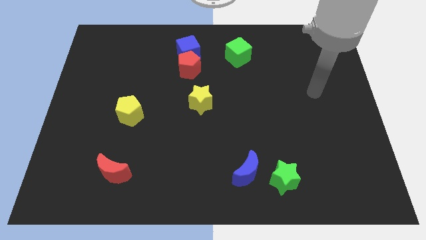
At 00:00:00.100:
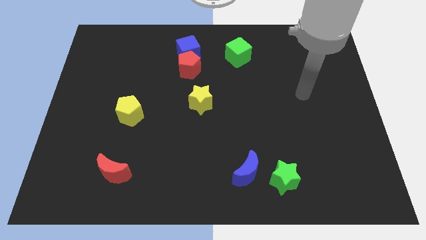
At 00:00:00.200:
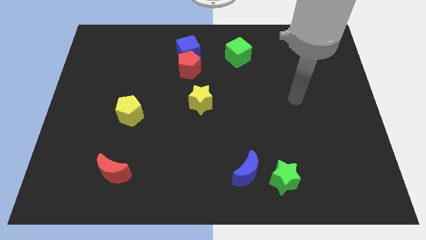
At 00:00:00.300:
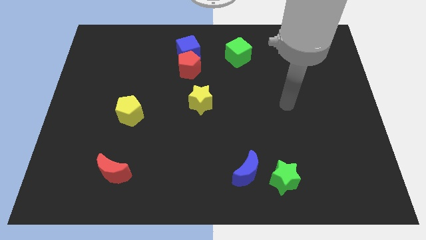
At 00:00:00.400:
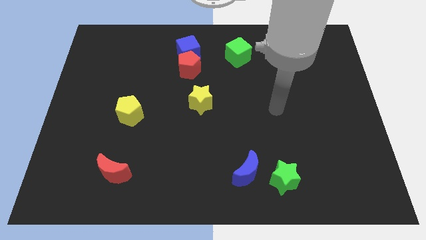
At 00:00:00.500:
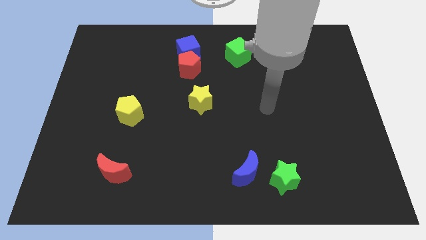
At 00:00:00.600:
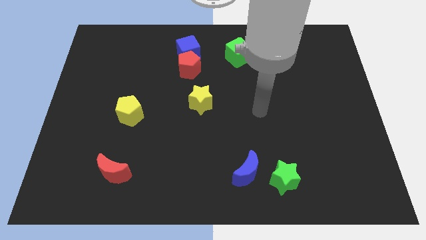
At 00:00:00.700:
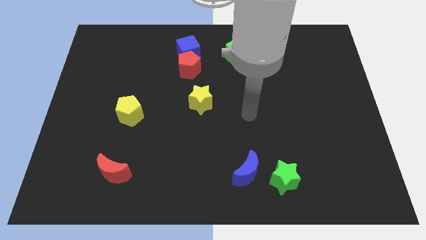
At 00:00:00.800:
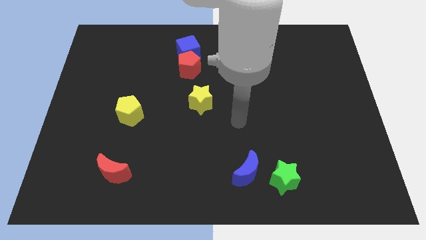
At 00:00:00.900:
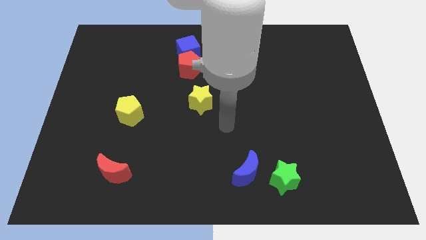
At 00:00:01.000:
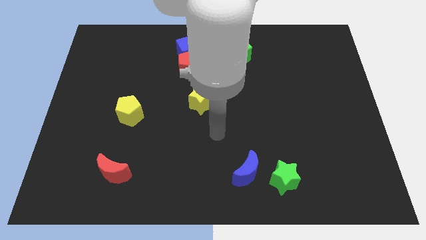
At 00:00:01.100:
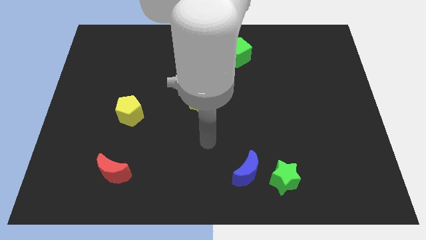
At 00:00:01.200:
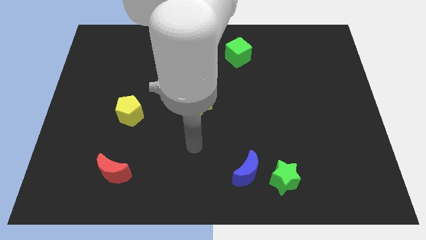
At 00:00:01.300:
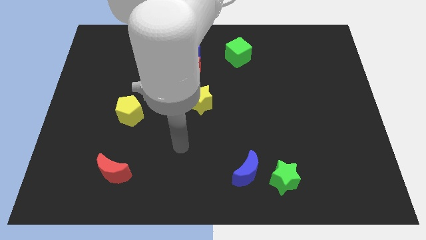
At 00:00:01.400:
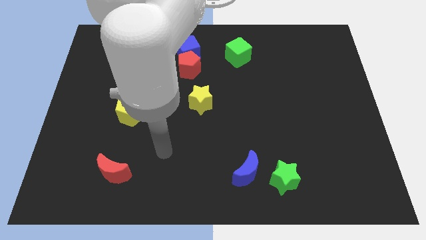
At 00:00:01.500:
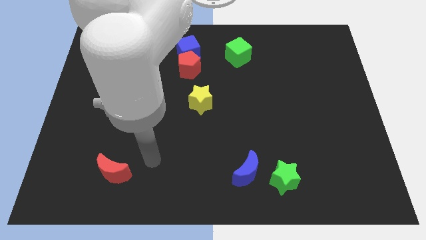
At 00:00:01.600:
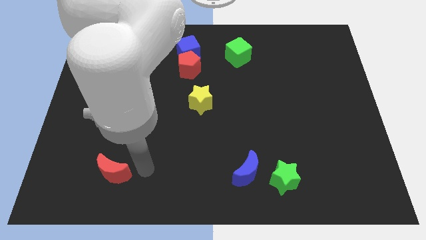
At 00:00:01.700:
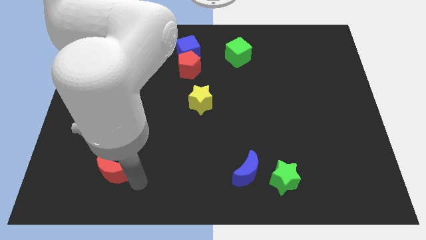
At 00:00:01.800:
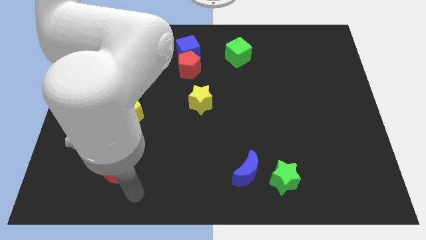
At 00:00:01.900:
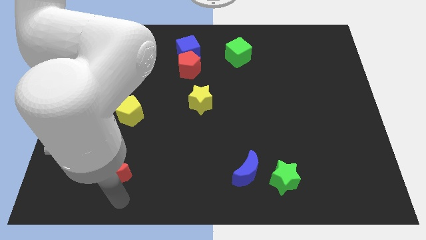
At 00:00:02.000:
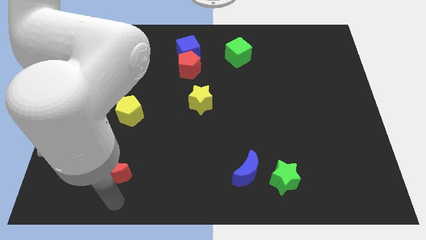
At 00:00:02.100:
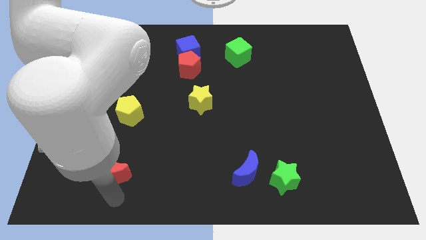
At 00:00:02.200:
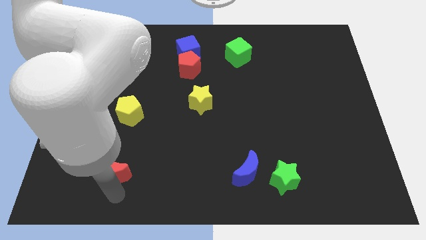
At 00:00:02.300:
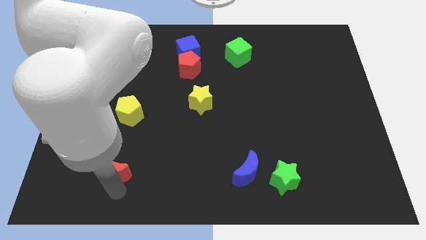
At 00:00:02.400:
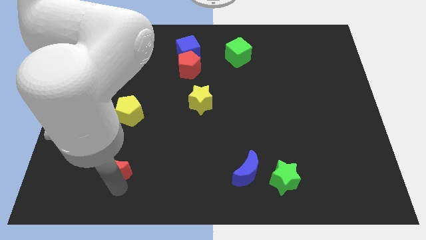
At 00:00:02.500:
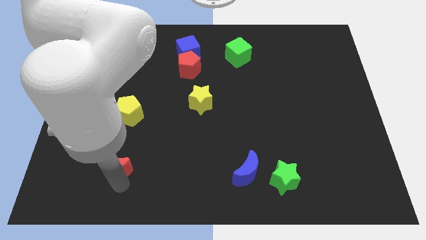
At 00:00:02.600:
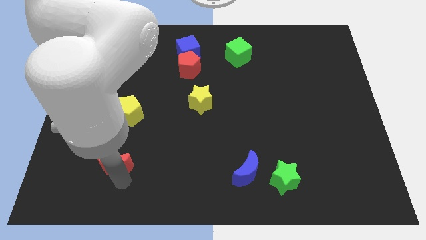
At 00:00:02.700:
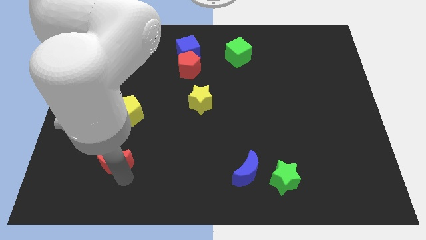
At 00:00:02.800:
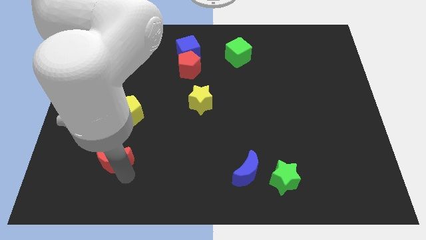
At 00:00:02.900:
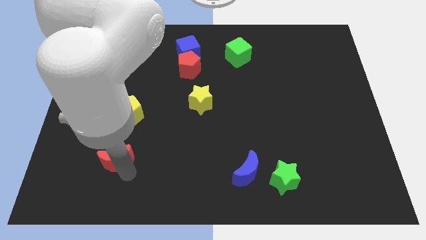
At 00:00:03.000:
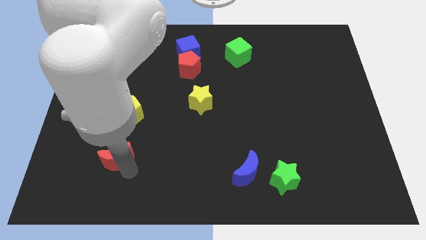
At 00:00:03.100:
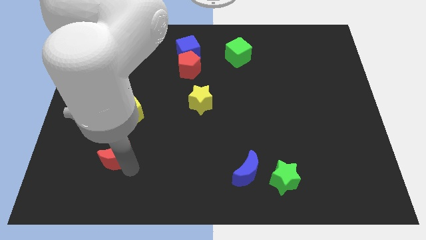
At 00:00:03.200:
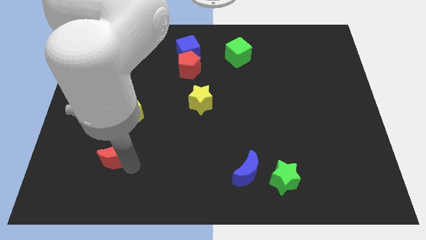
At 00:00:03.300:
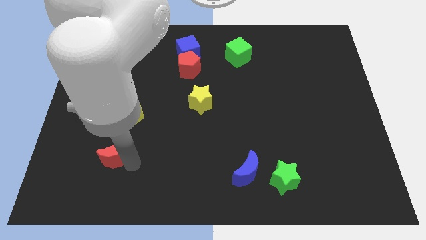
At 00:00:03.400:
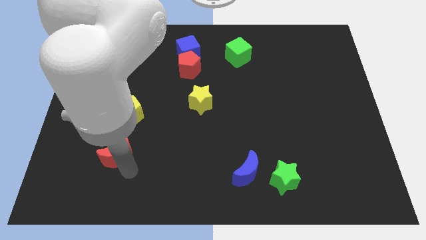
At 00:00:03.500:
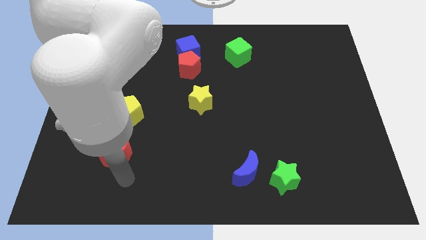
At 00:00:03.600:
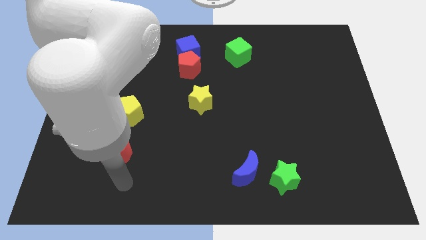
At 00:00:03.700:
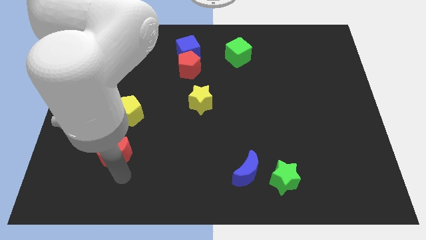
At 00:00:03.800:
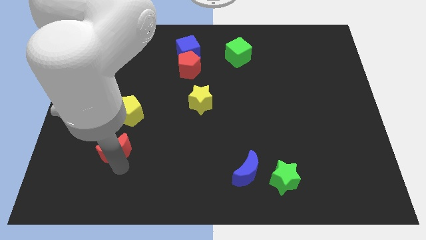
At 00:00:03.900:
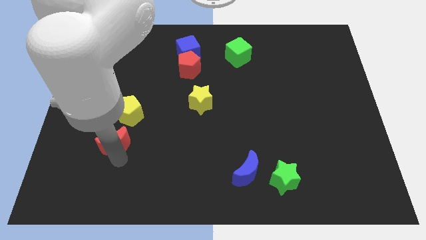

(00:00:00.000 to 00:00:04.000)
slide the red moon slightly upwards

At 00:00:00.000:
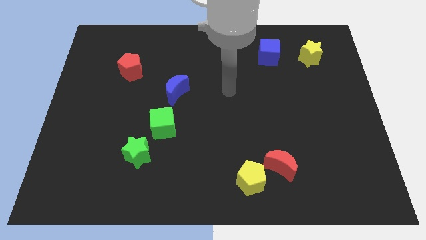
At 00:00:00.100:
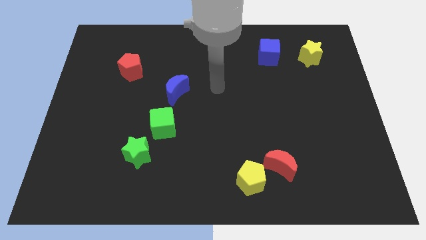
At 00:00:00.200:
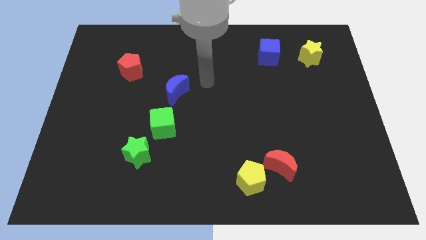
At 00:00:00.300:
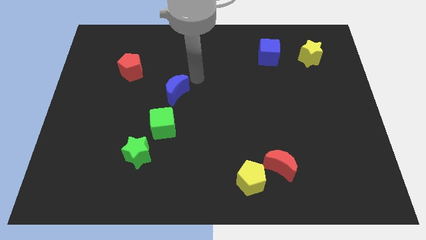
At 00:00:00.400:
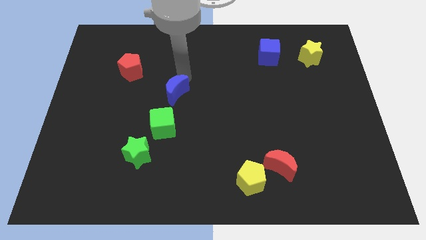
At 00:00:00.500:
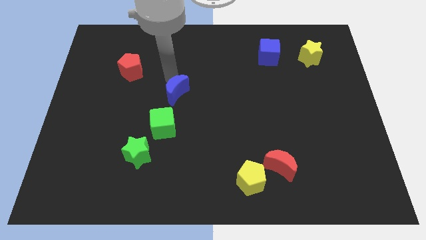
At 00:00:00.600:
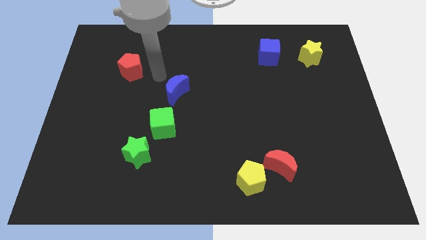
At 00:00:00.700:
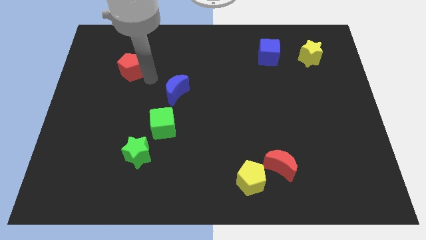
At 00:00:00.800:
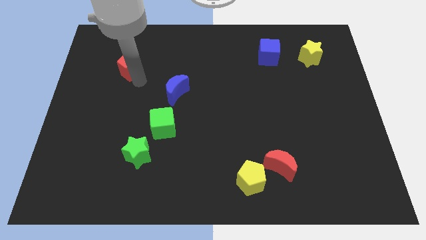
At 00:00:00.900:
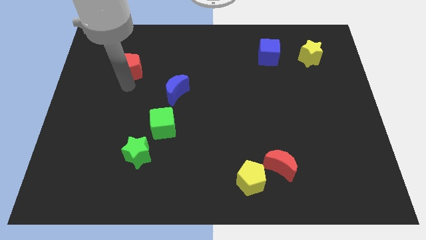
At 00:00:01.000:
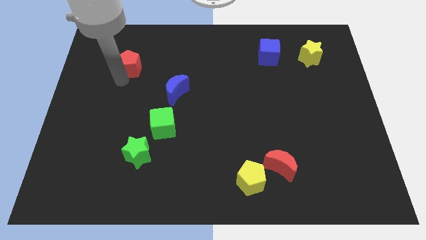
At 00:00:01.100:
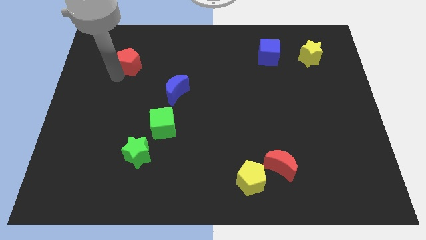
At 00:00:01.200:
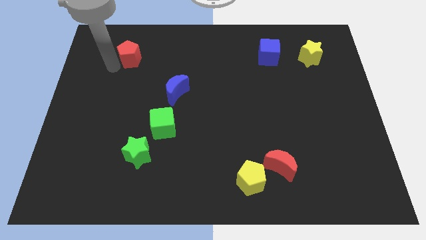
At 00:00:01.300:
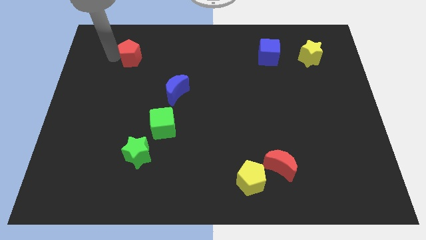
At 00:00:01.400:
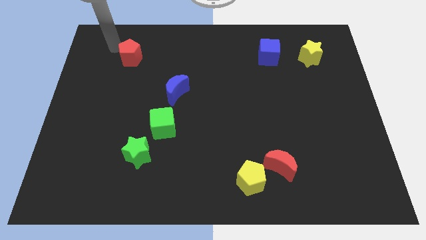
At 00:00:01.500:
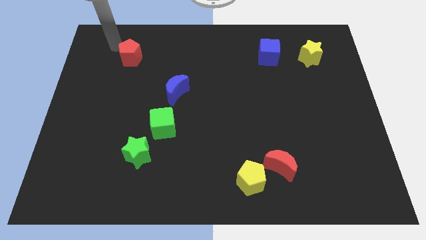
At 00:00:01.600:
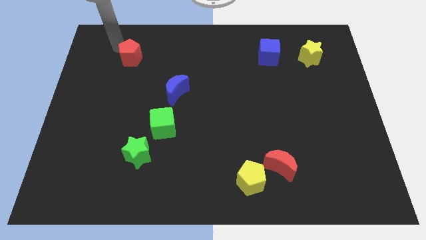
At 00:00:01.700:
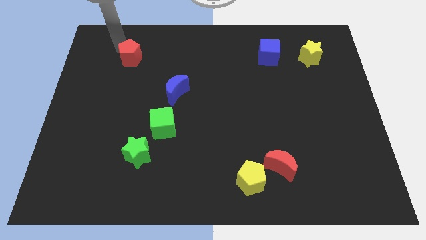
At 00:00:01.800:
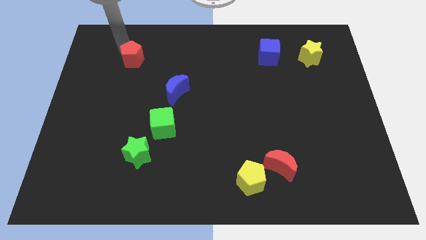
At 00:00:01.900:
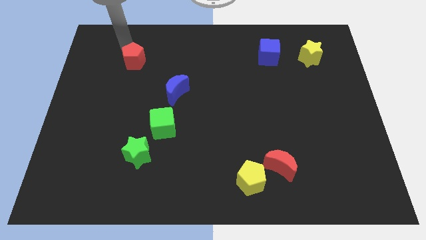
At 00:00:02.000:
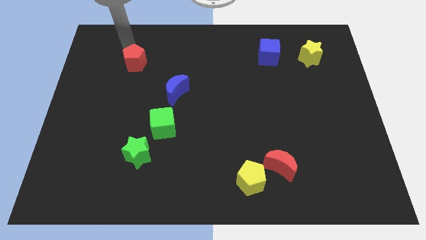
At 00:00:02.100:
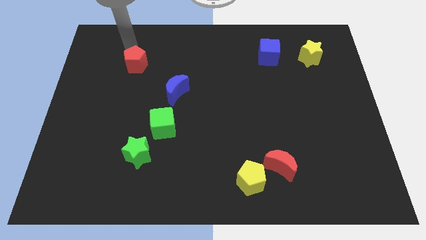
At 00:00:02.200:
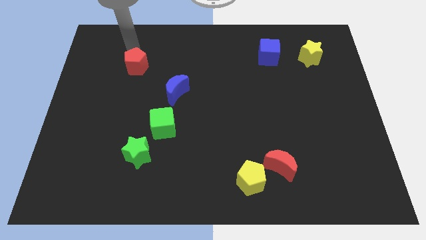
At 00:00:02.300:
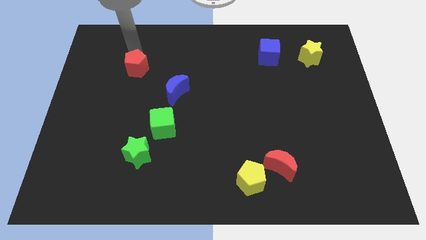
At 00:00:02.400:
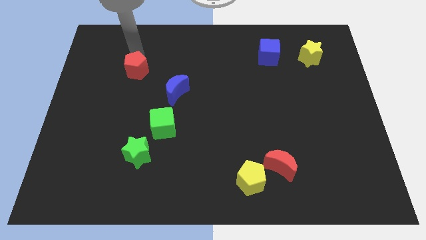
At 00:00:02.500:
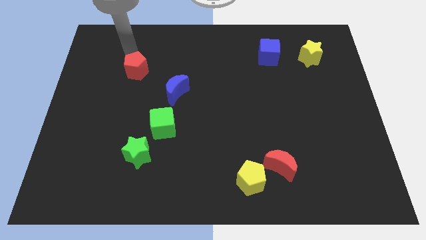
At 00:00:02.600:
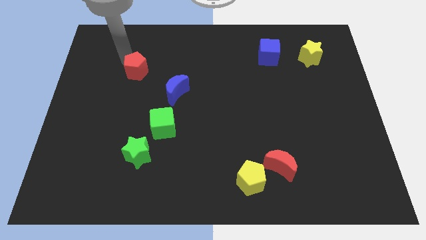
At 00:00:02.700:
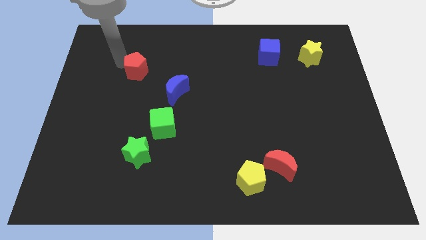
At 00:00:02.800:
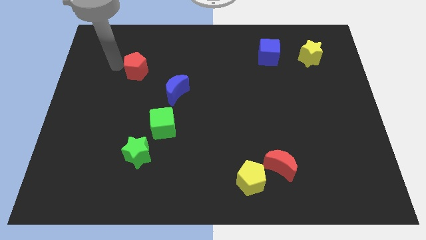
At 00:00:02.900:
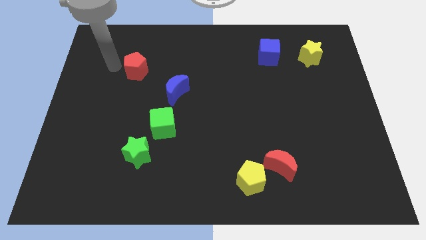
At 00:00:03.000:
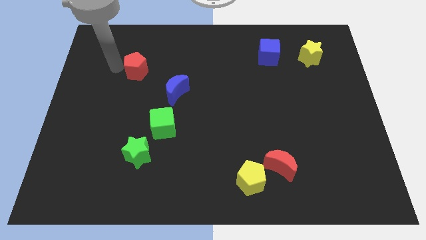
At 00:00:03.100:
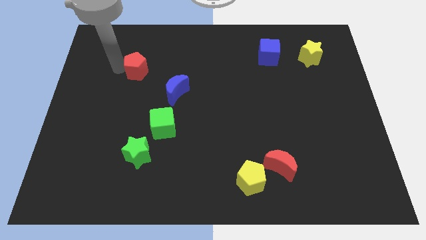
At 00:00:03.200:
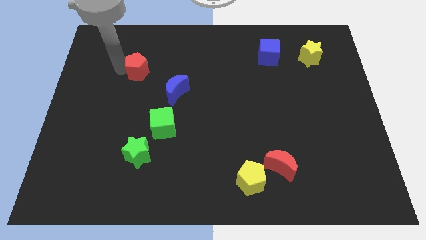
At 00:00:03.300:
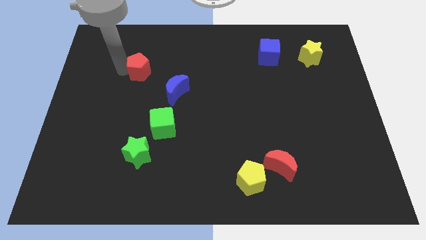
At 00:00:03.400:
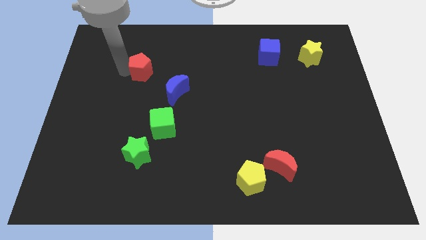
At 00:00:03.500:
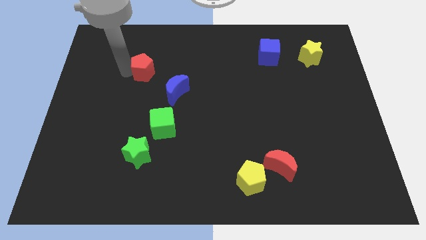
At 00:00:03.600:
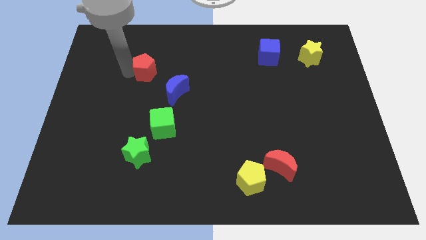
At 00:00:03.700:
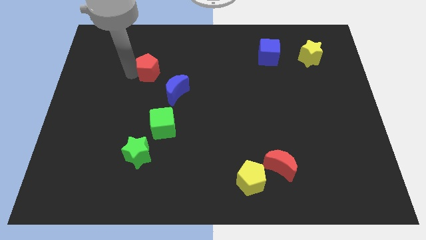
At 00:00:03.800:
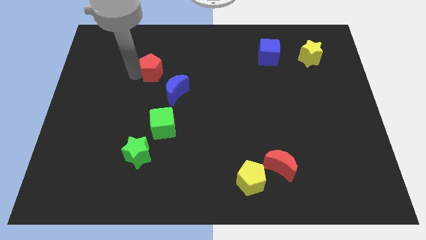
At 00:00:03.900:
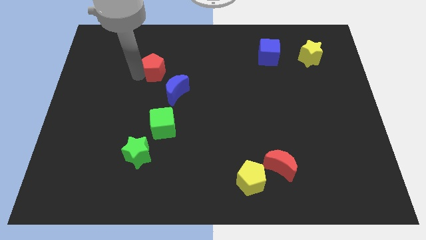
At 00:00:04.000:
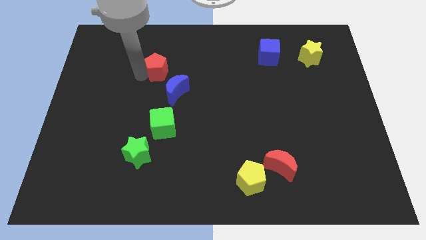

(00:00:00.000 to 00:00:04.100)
slightly move the red pentagon to the right
